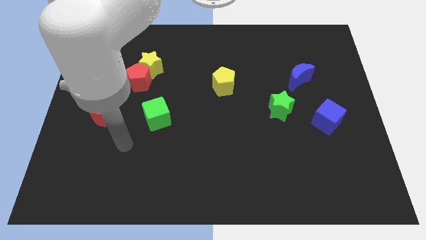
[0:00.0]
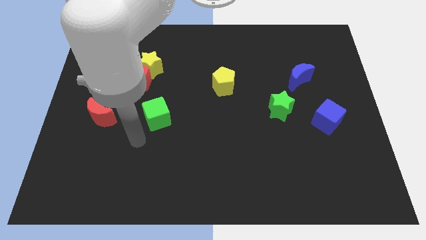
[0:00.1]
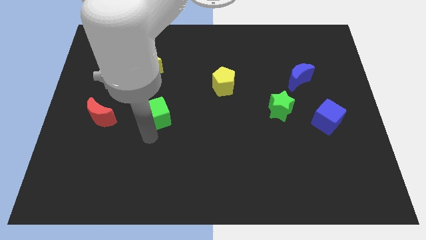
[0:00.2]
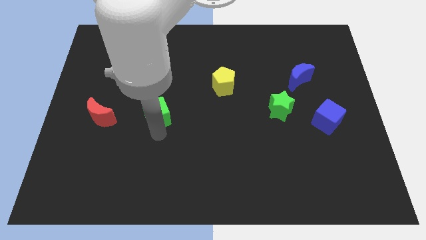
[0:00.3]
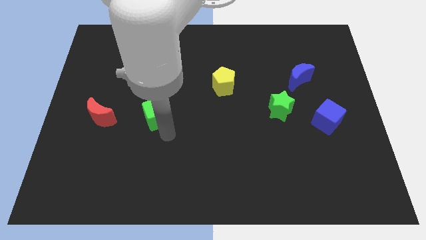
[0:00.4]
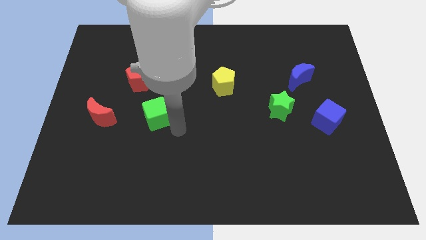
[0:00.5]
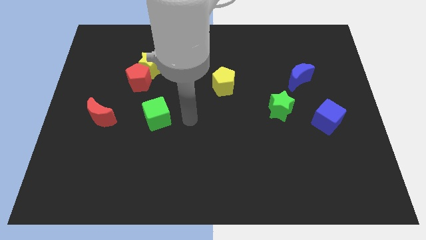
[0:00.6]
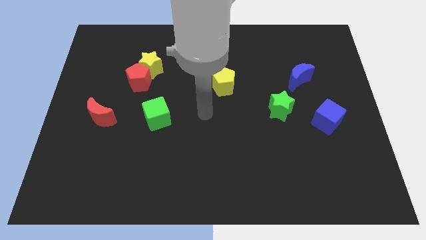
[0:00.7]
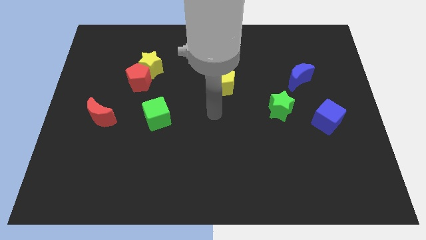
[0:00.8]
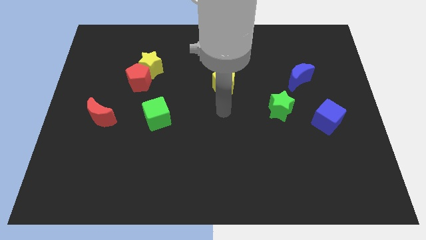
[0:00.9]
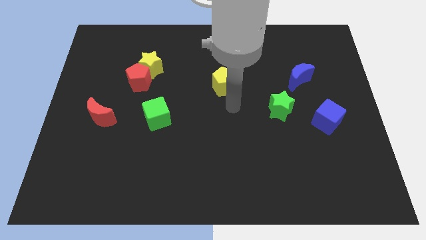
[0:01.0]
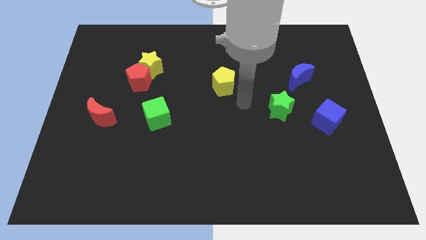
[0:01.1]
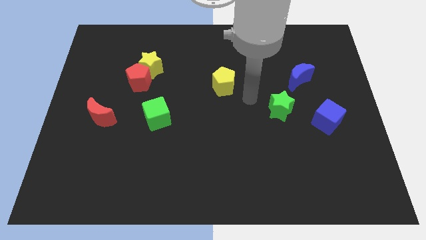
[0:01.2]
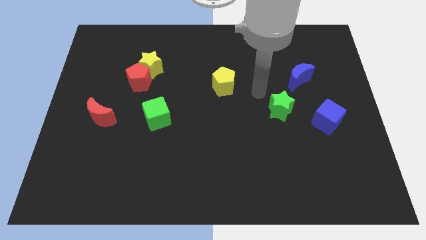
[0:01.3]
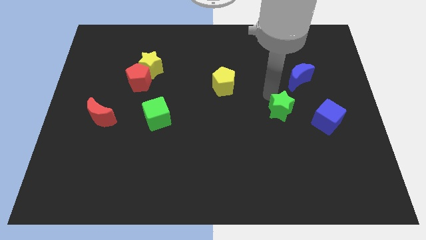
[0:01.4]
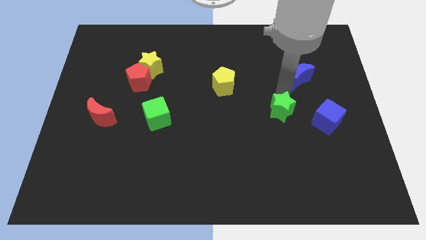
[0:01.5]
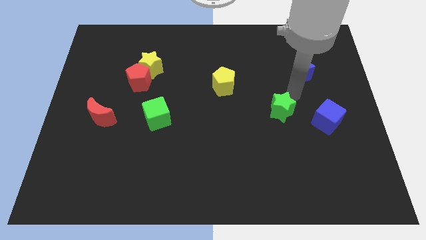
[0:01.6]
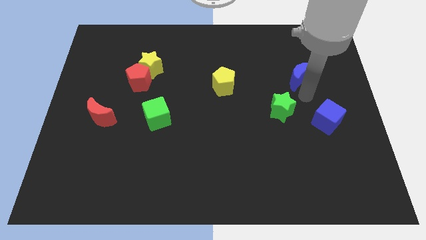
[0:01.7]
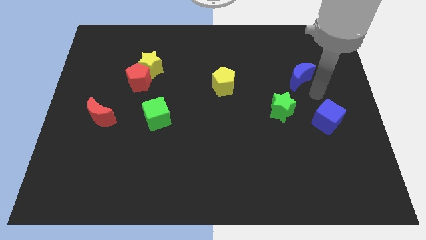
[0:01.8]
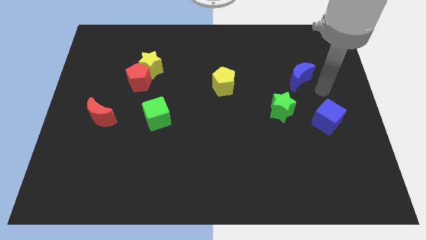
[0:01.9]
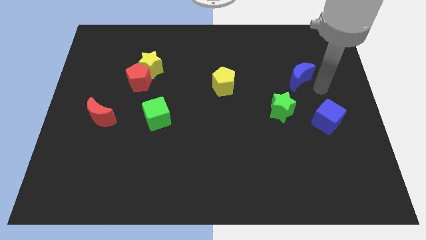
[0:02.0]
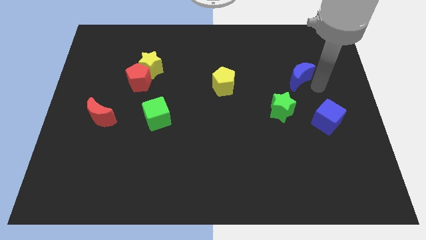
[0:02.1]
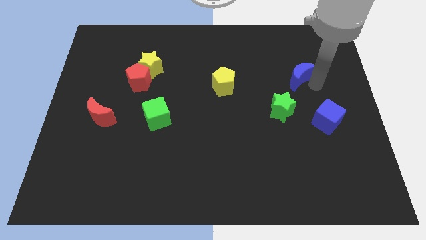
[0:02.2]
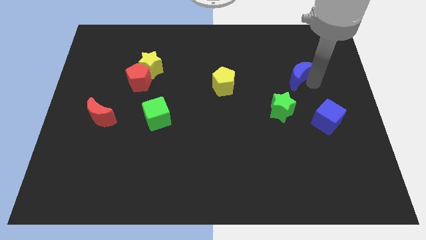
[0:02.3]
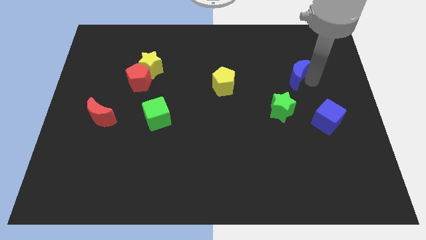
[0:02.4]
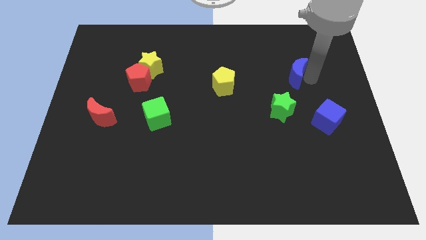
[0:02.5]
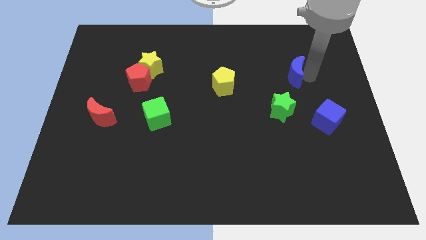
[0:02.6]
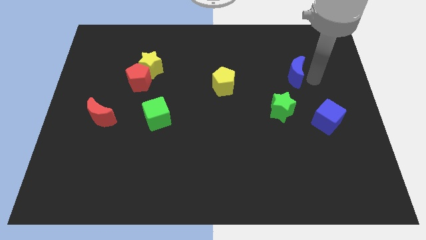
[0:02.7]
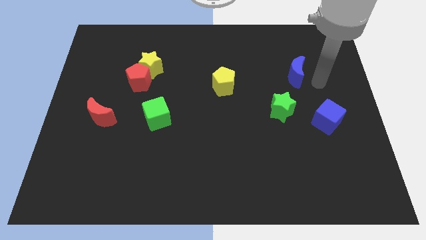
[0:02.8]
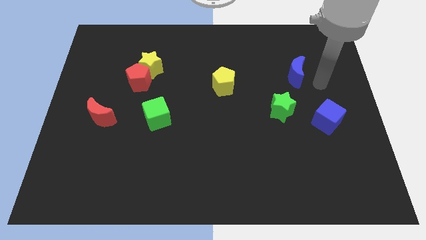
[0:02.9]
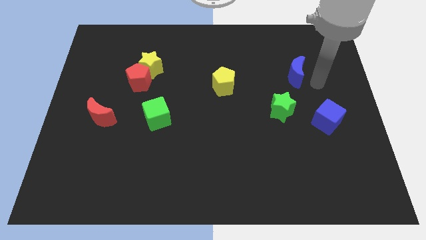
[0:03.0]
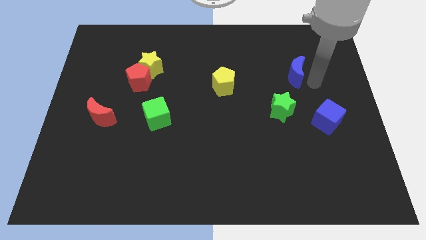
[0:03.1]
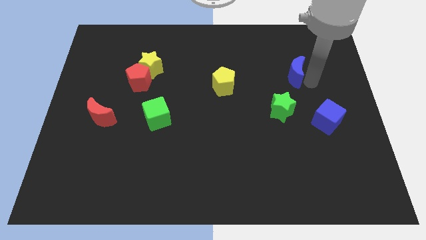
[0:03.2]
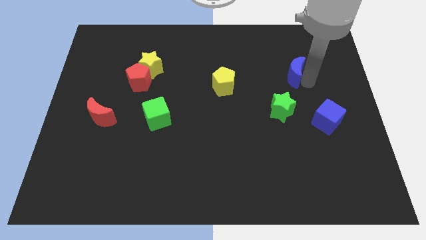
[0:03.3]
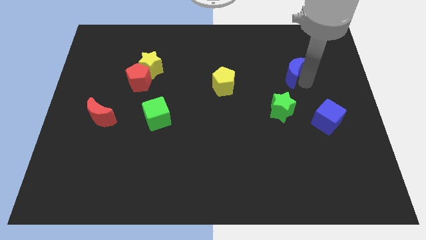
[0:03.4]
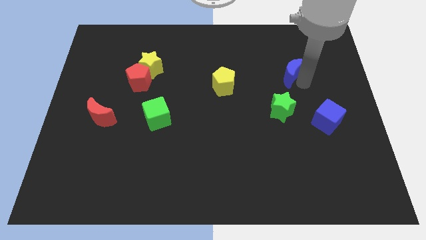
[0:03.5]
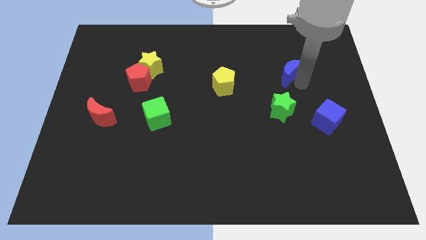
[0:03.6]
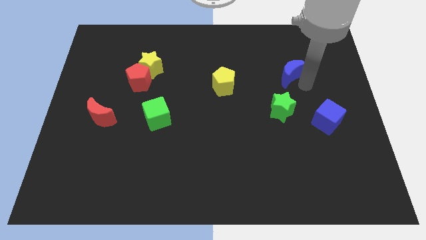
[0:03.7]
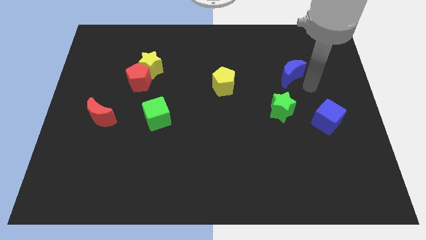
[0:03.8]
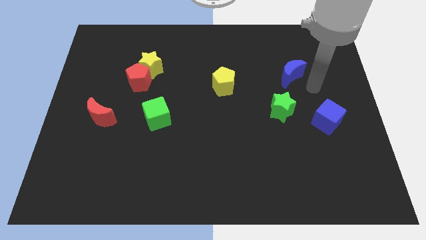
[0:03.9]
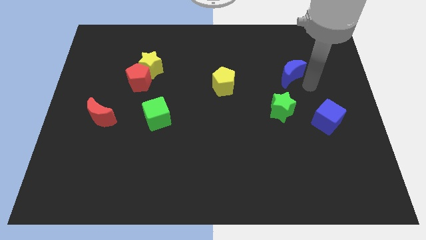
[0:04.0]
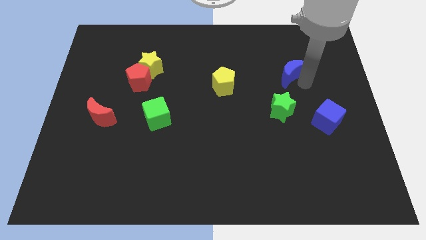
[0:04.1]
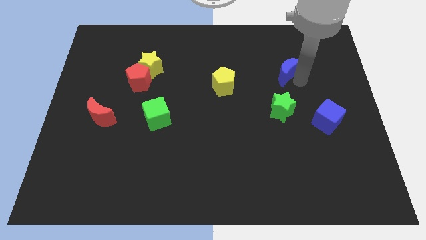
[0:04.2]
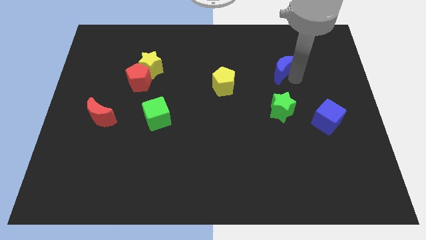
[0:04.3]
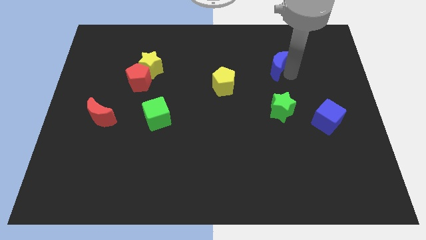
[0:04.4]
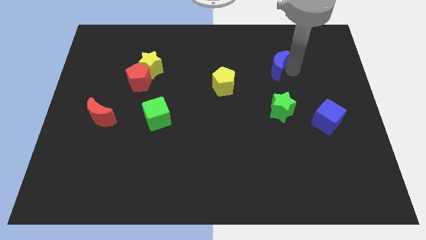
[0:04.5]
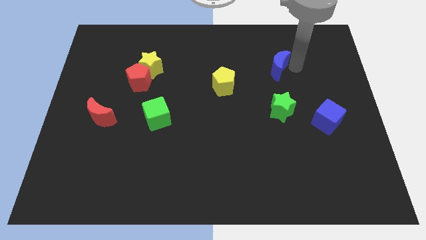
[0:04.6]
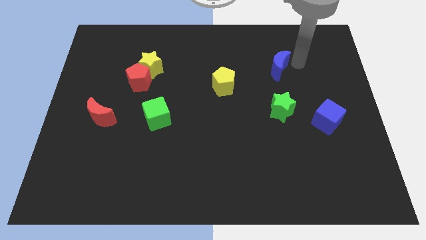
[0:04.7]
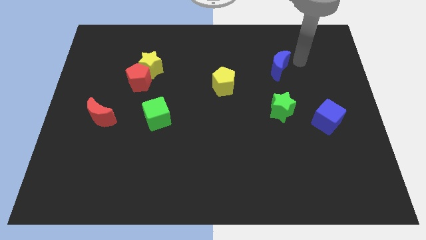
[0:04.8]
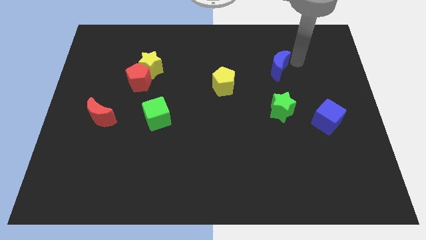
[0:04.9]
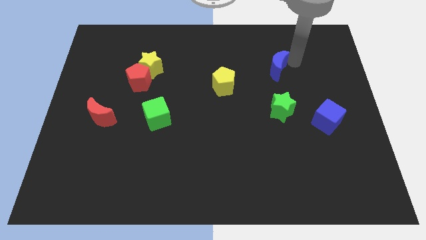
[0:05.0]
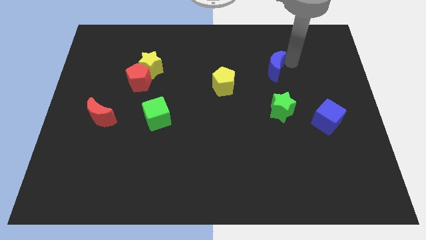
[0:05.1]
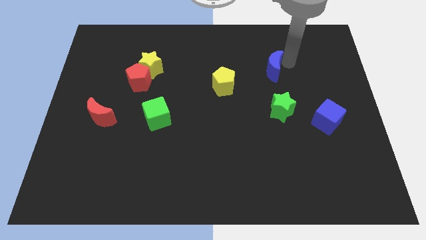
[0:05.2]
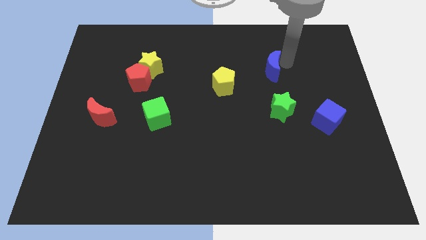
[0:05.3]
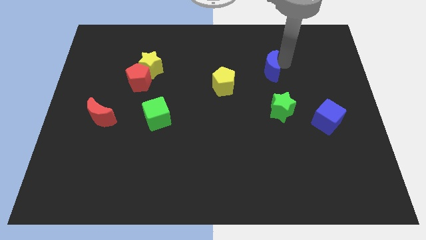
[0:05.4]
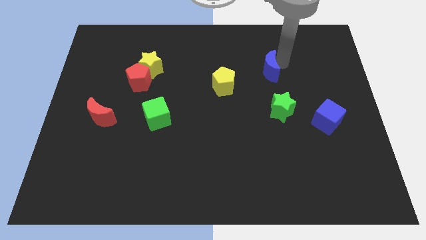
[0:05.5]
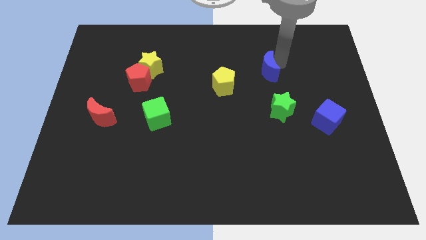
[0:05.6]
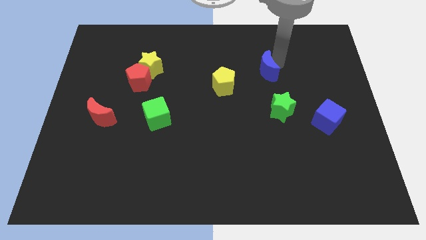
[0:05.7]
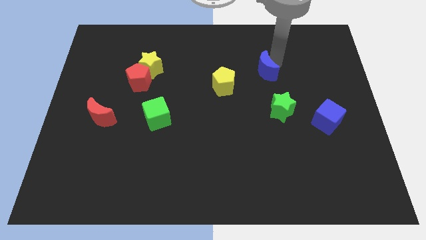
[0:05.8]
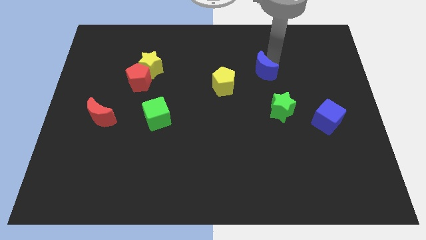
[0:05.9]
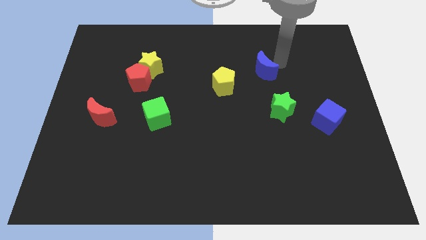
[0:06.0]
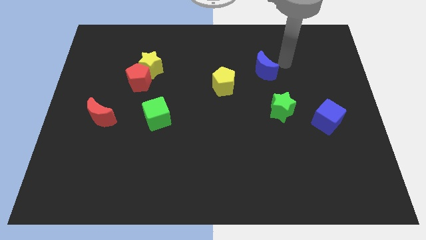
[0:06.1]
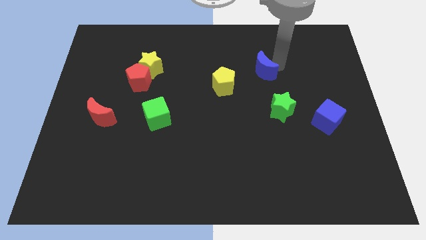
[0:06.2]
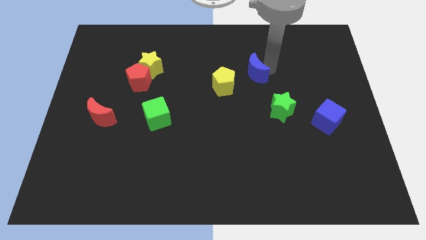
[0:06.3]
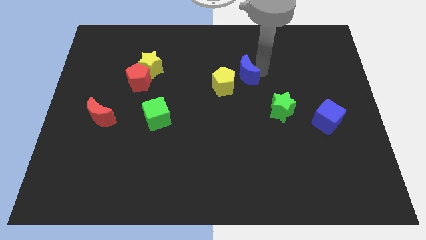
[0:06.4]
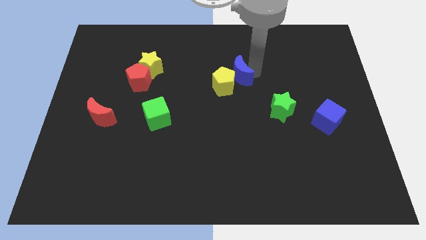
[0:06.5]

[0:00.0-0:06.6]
put the blue moon to the yellow pentagon
